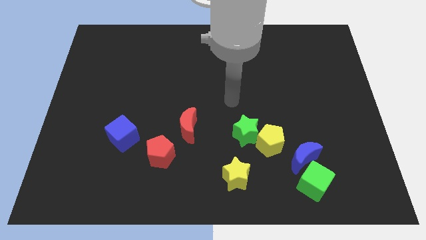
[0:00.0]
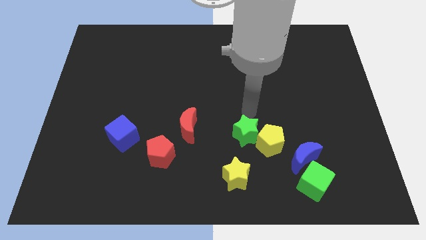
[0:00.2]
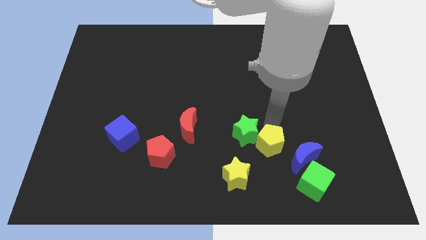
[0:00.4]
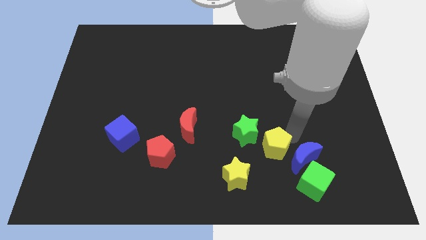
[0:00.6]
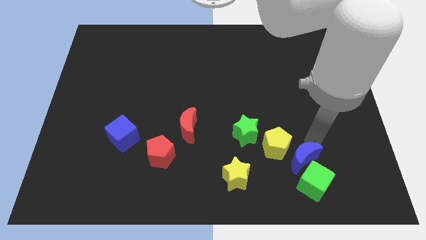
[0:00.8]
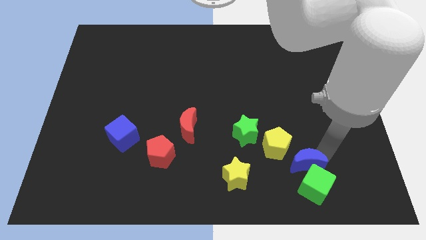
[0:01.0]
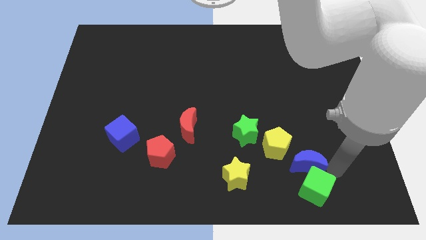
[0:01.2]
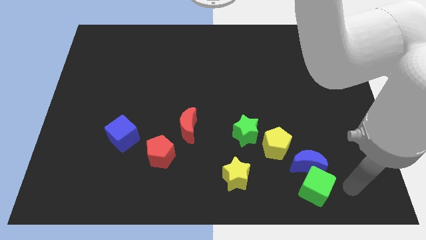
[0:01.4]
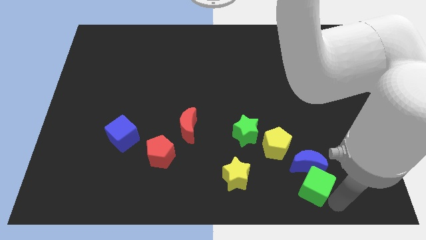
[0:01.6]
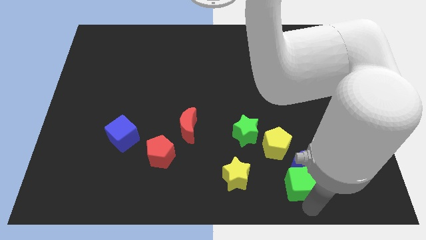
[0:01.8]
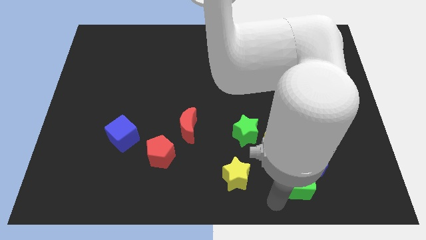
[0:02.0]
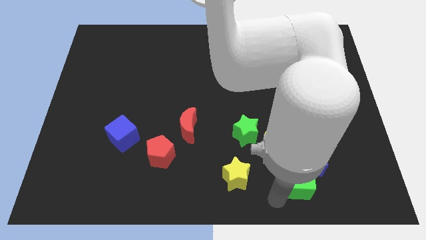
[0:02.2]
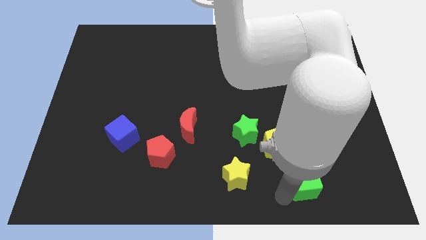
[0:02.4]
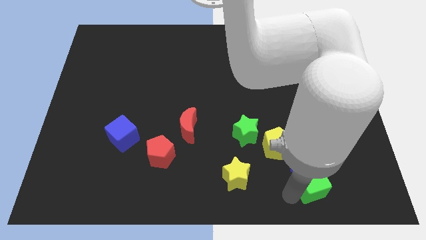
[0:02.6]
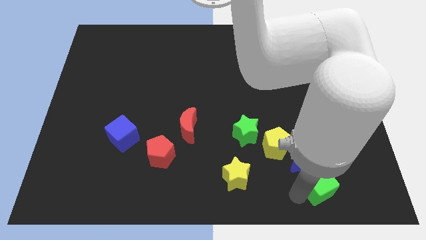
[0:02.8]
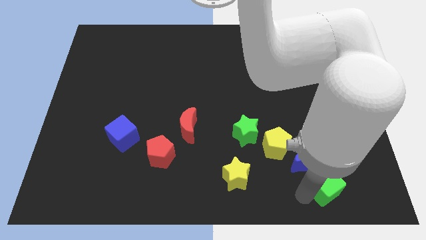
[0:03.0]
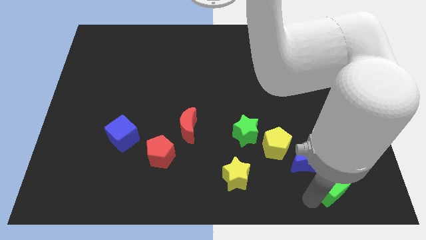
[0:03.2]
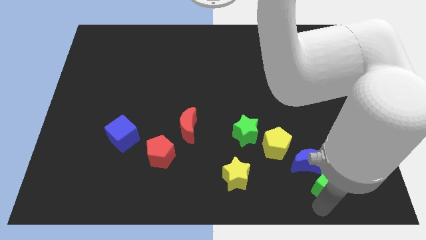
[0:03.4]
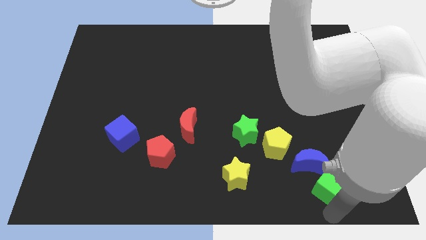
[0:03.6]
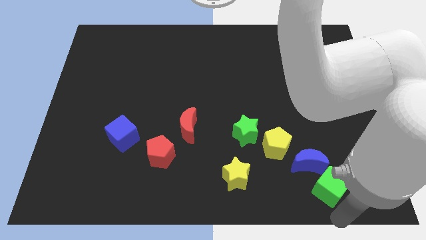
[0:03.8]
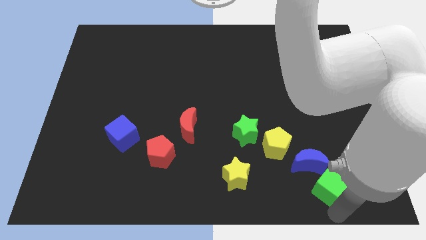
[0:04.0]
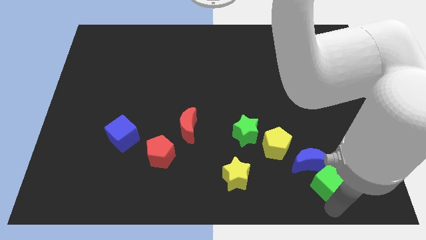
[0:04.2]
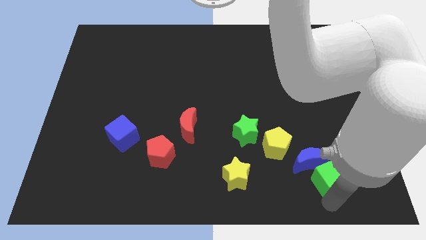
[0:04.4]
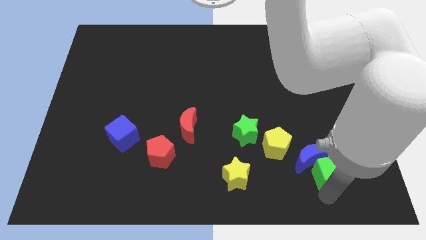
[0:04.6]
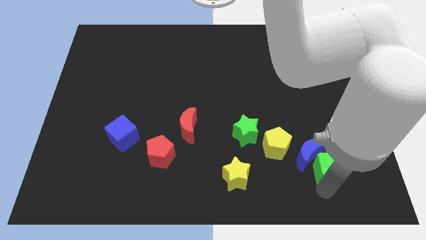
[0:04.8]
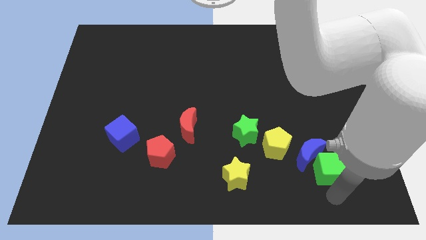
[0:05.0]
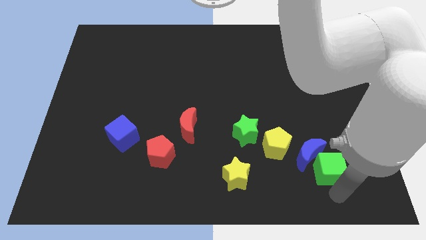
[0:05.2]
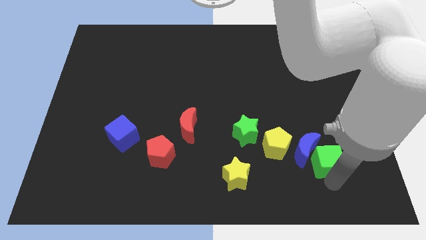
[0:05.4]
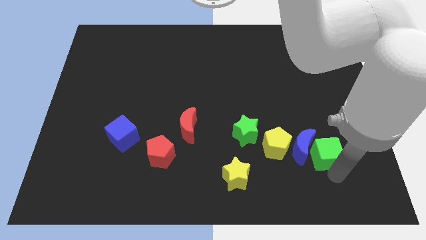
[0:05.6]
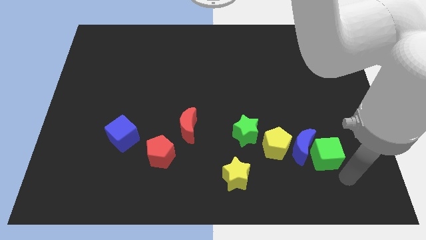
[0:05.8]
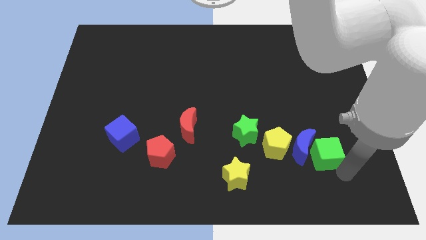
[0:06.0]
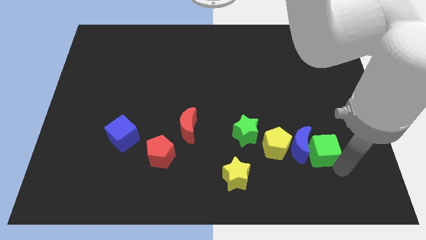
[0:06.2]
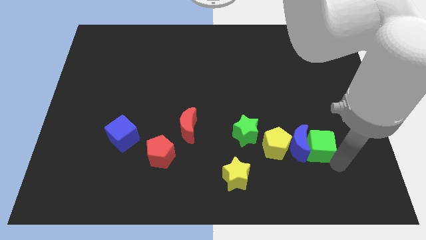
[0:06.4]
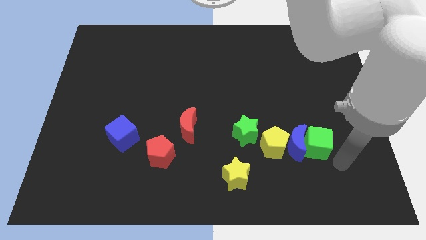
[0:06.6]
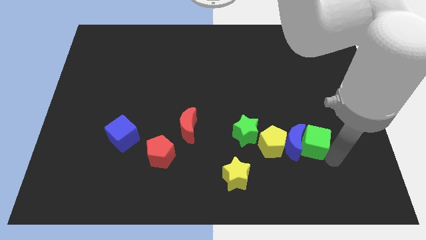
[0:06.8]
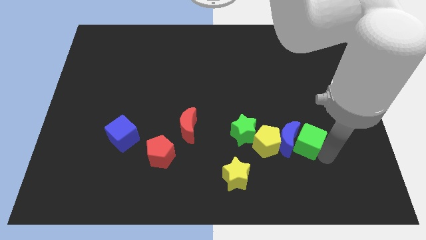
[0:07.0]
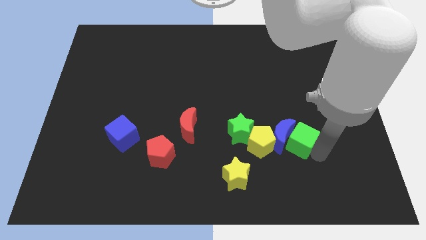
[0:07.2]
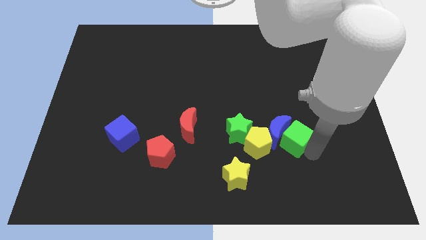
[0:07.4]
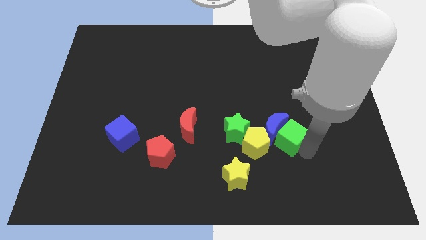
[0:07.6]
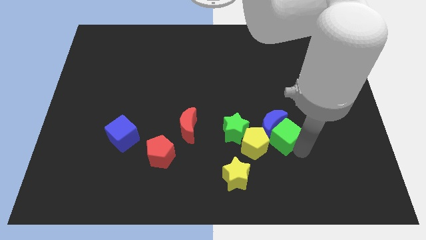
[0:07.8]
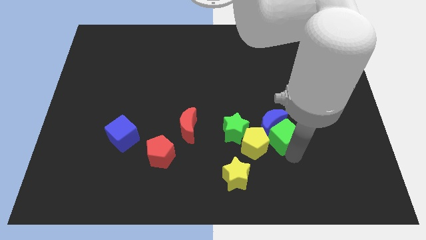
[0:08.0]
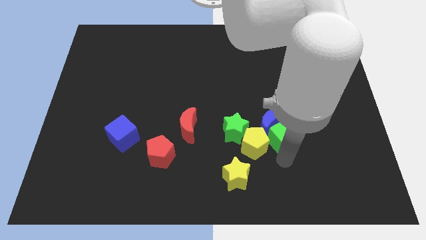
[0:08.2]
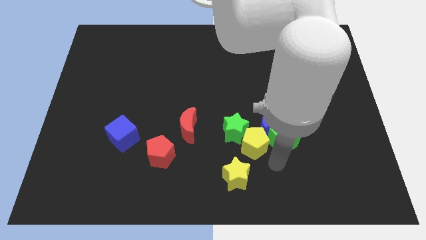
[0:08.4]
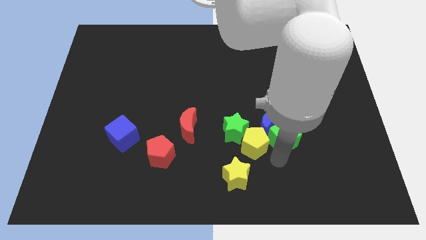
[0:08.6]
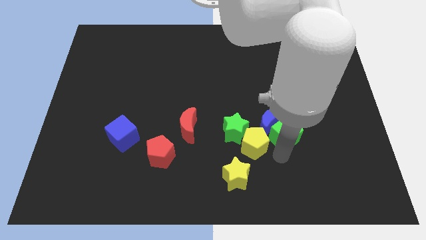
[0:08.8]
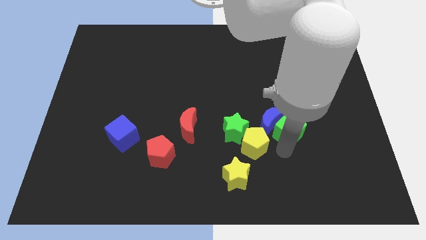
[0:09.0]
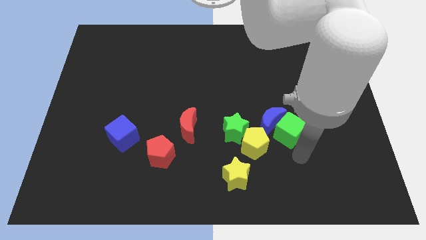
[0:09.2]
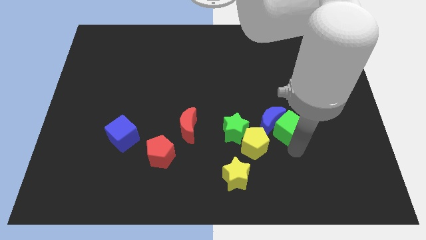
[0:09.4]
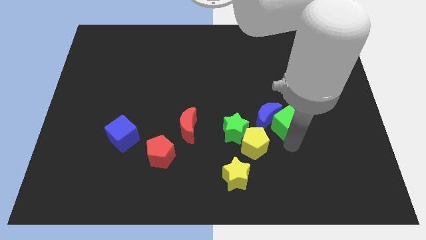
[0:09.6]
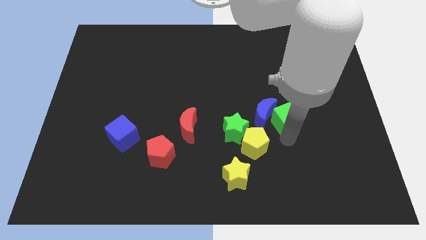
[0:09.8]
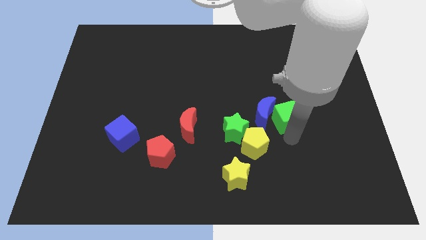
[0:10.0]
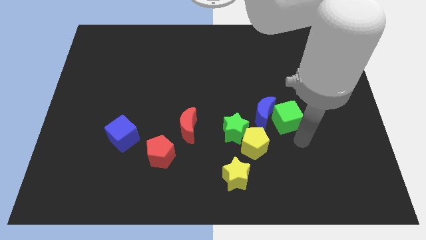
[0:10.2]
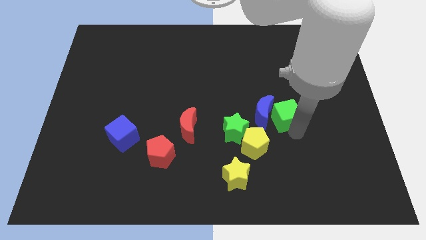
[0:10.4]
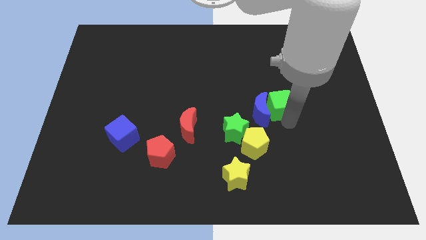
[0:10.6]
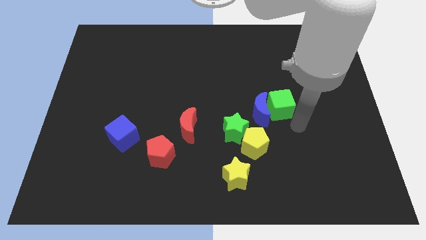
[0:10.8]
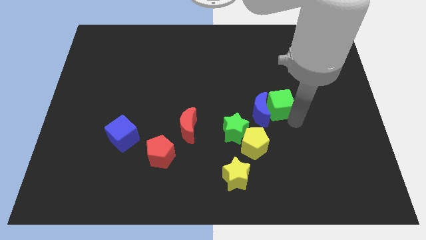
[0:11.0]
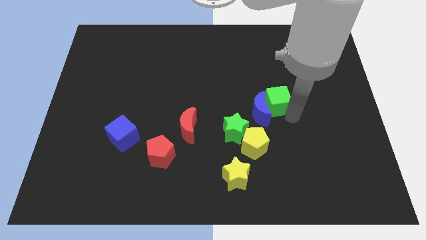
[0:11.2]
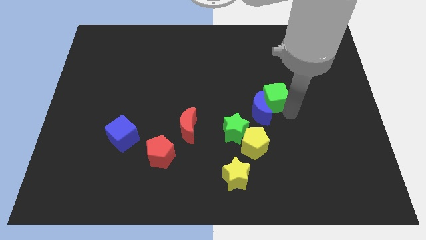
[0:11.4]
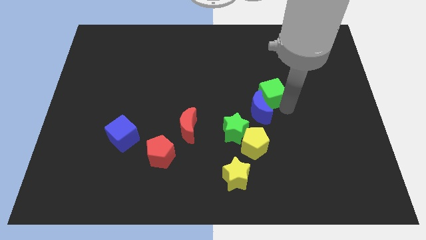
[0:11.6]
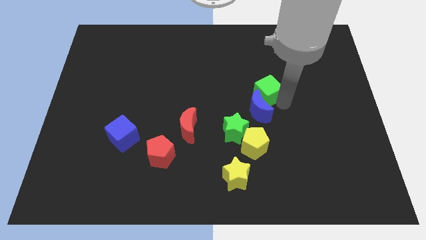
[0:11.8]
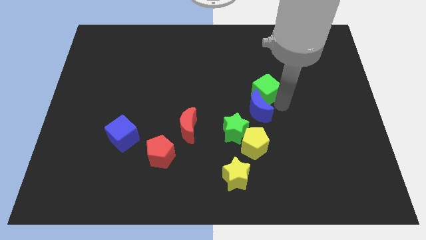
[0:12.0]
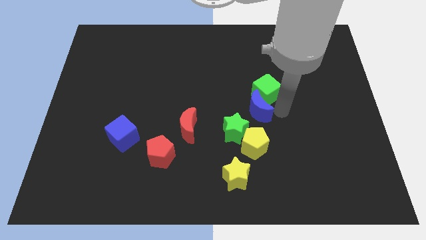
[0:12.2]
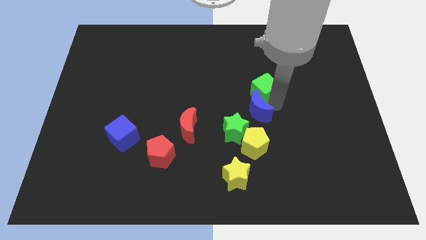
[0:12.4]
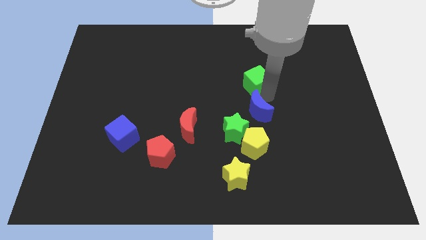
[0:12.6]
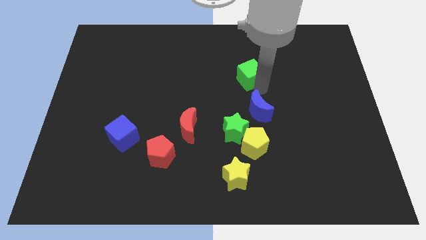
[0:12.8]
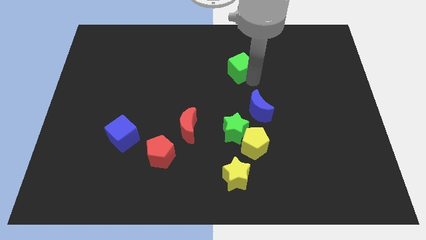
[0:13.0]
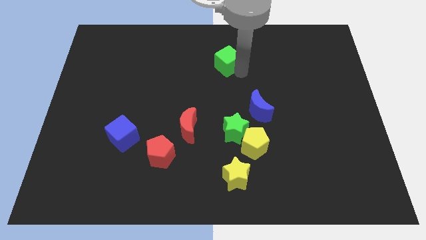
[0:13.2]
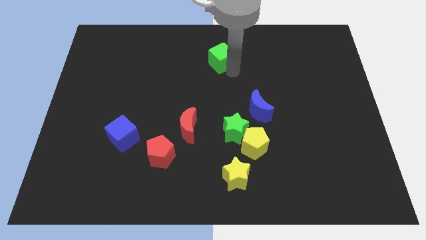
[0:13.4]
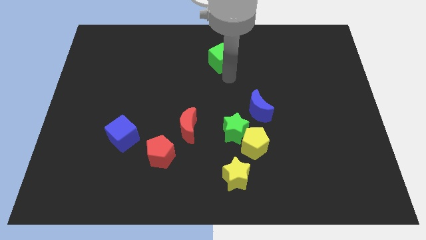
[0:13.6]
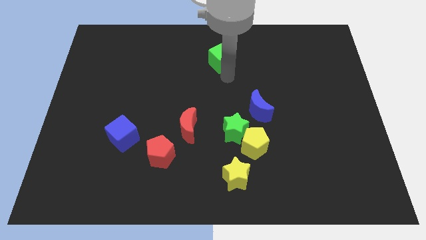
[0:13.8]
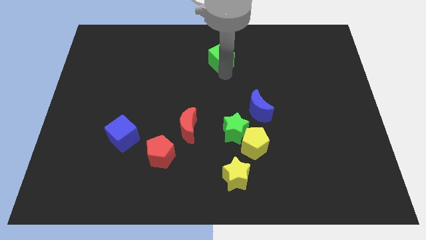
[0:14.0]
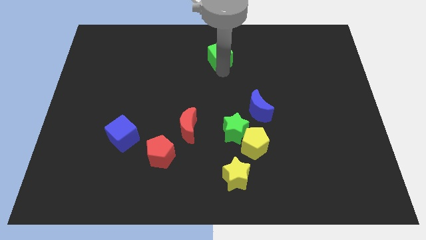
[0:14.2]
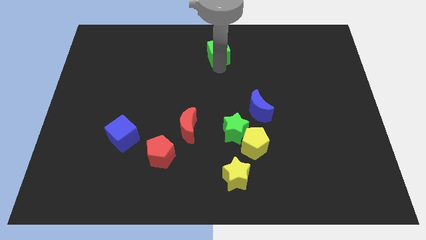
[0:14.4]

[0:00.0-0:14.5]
move the green cube to the top

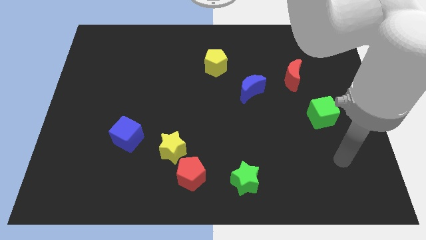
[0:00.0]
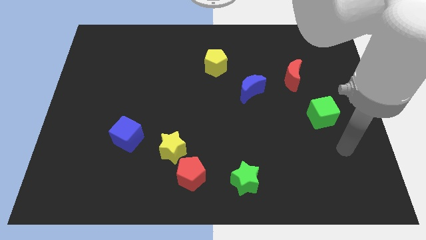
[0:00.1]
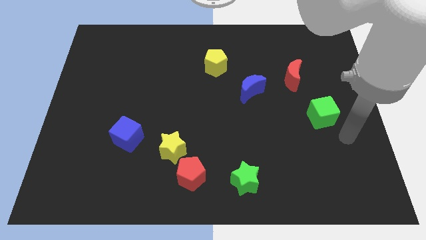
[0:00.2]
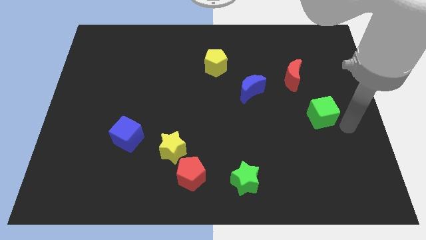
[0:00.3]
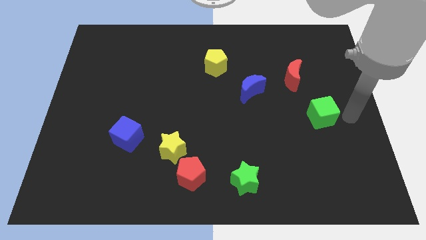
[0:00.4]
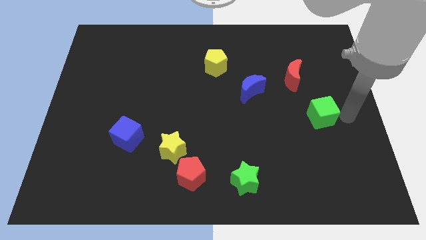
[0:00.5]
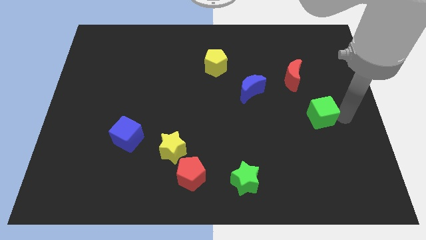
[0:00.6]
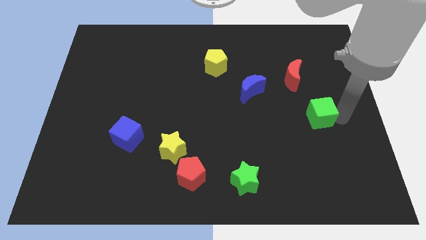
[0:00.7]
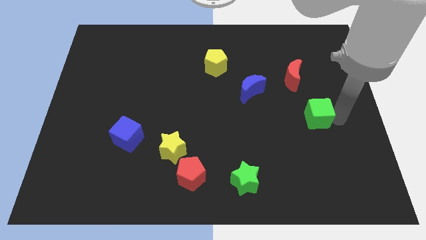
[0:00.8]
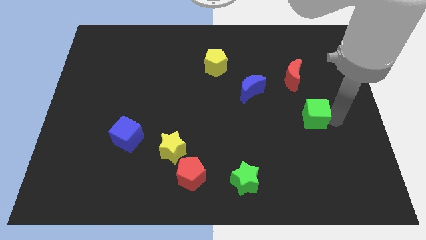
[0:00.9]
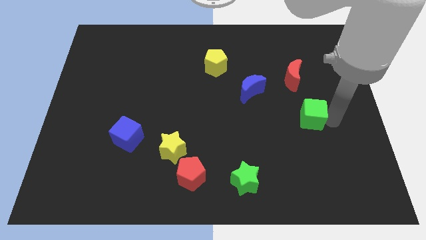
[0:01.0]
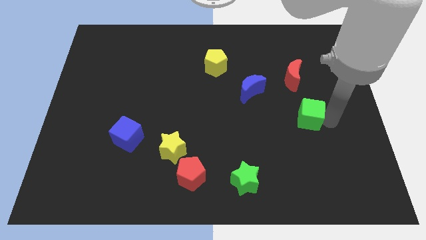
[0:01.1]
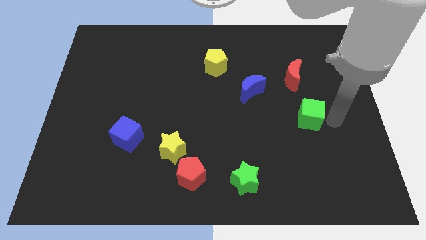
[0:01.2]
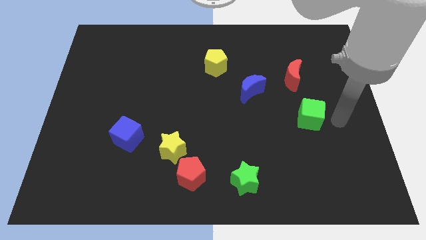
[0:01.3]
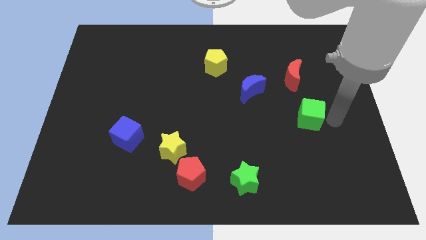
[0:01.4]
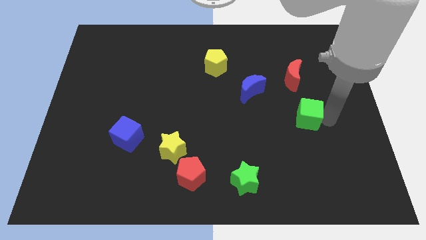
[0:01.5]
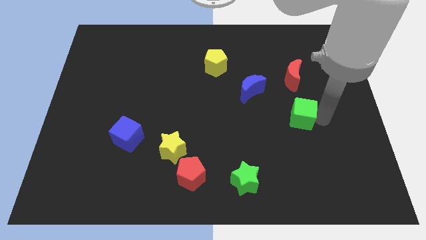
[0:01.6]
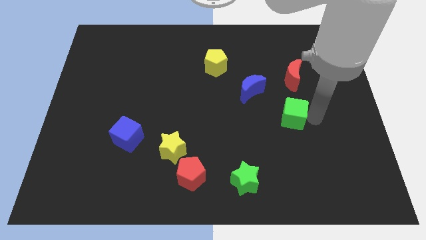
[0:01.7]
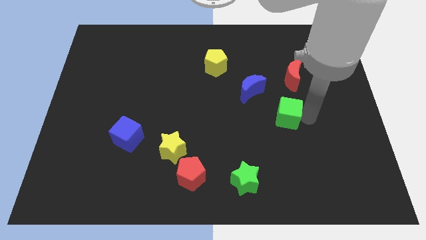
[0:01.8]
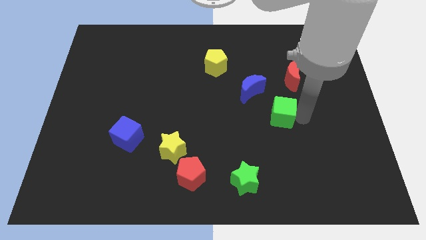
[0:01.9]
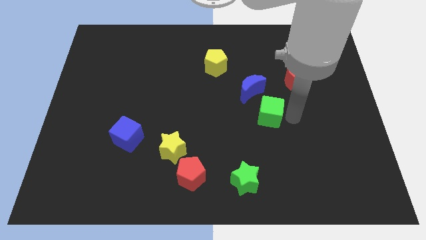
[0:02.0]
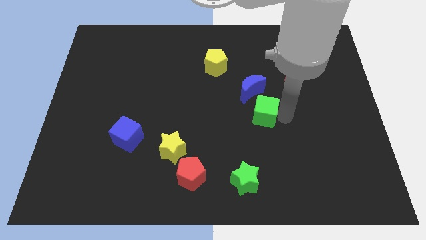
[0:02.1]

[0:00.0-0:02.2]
slide the green cube to the center of the board
